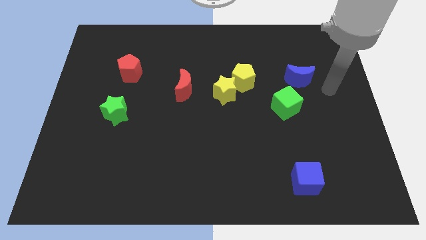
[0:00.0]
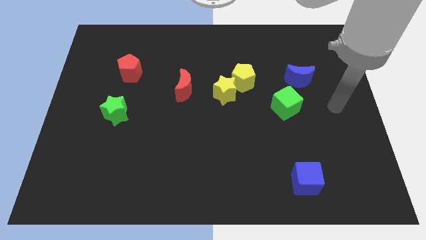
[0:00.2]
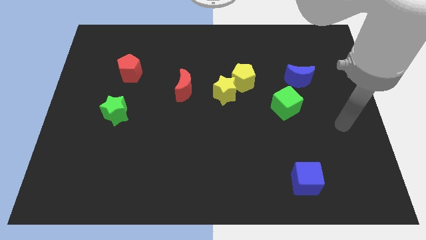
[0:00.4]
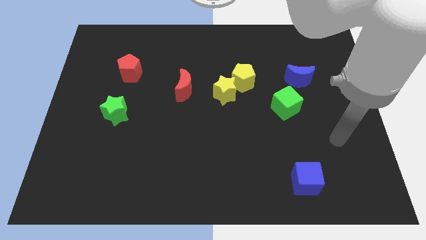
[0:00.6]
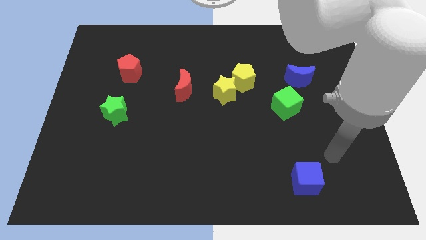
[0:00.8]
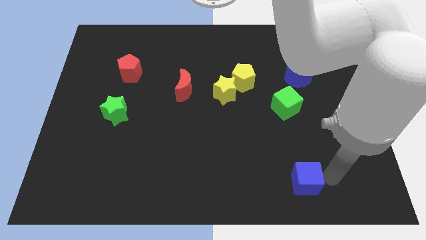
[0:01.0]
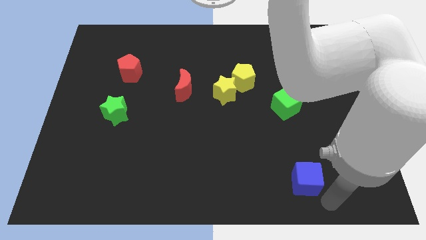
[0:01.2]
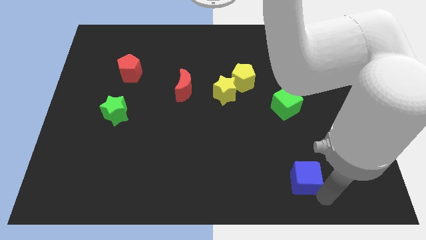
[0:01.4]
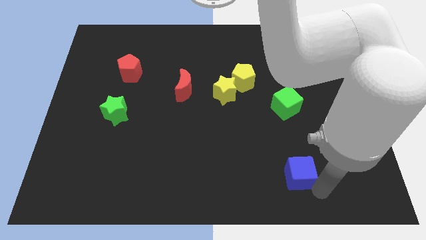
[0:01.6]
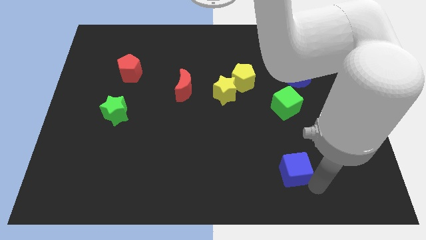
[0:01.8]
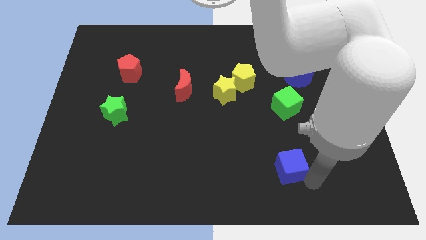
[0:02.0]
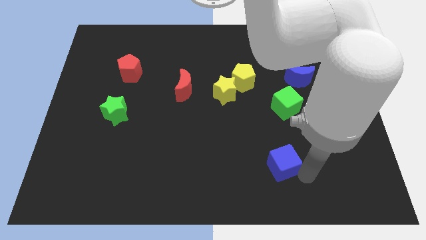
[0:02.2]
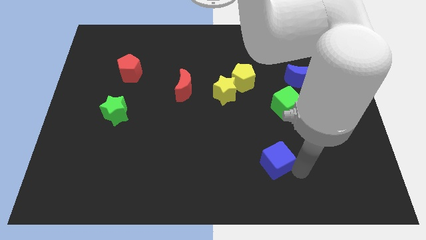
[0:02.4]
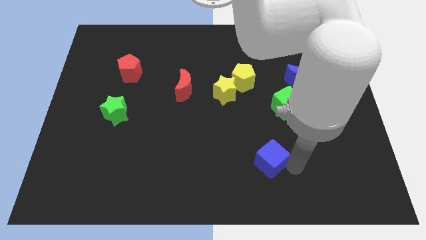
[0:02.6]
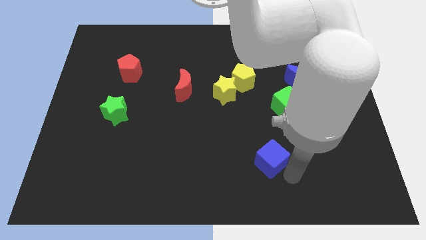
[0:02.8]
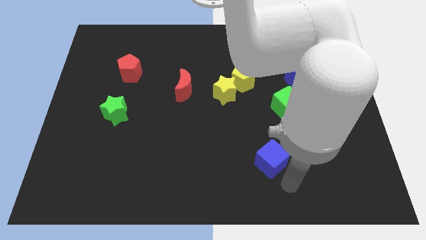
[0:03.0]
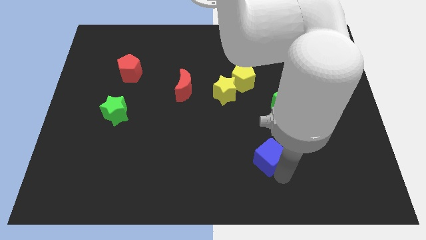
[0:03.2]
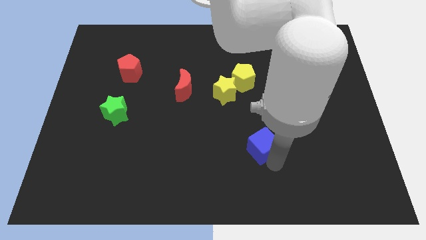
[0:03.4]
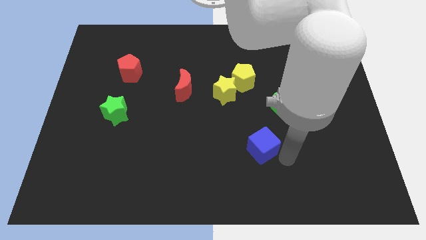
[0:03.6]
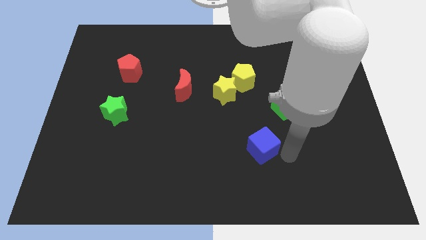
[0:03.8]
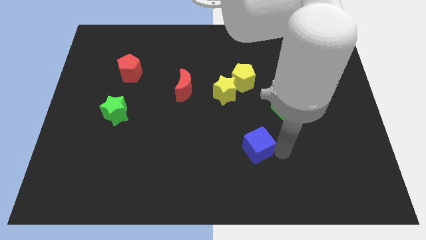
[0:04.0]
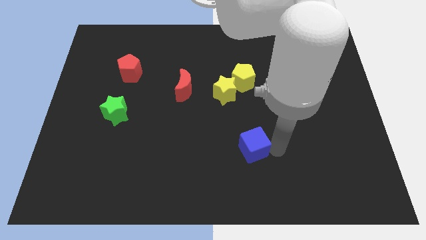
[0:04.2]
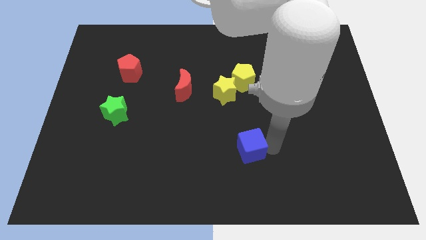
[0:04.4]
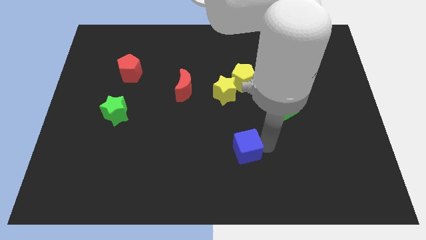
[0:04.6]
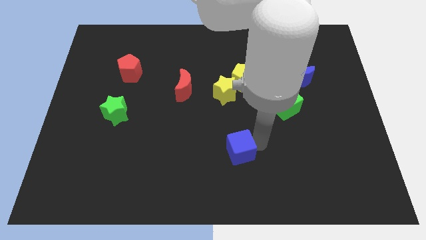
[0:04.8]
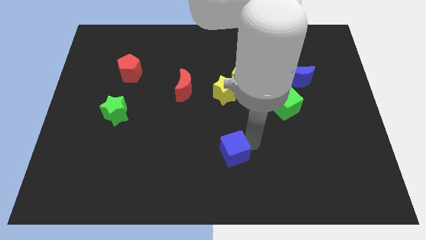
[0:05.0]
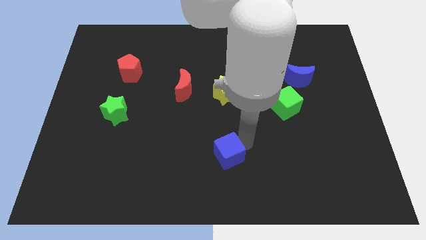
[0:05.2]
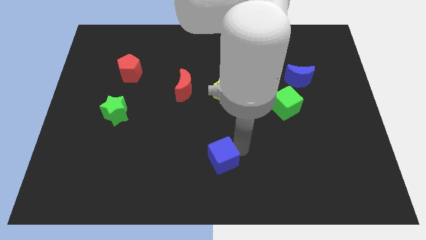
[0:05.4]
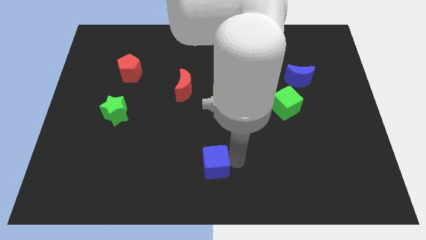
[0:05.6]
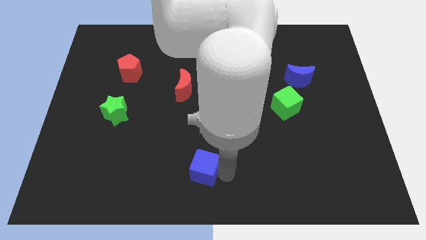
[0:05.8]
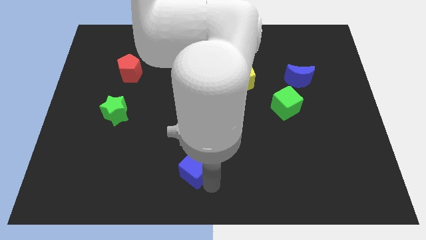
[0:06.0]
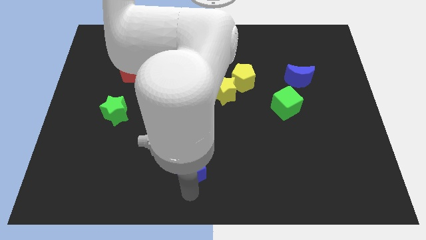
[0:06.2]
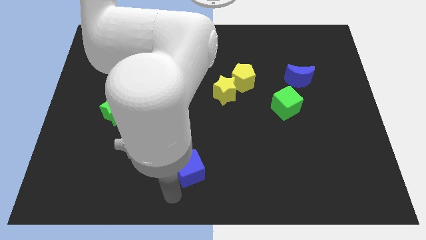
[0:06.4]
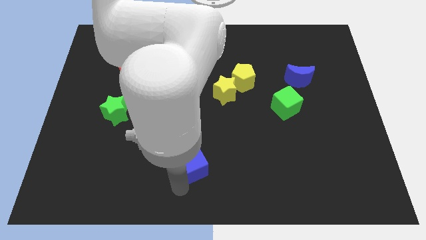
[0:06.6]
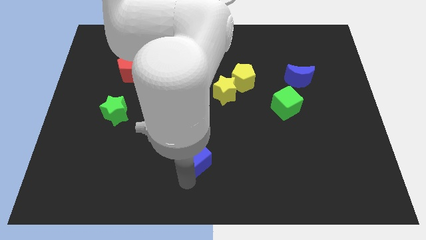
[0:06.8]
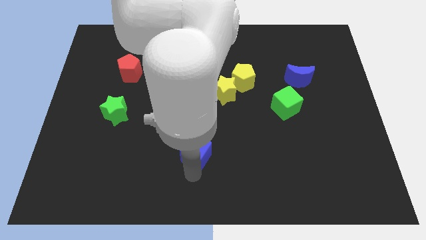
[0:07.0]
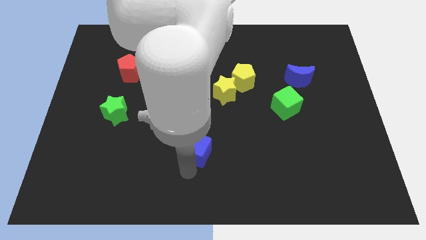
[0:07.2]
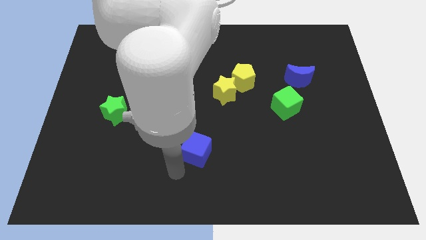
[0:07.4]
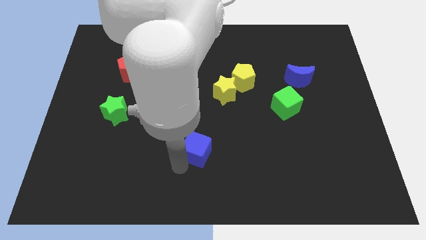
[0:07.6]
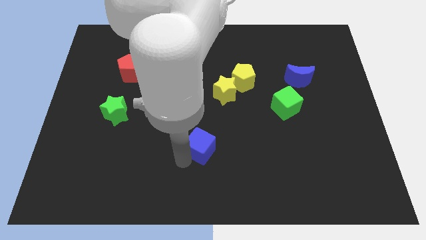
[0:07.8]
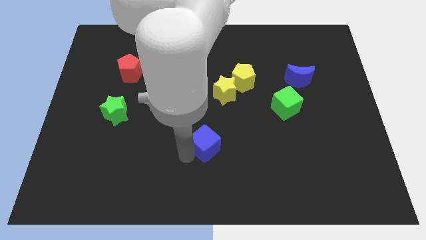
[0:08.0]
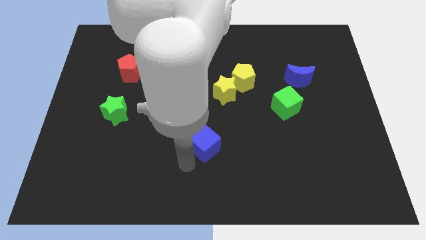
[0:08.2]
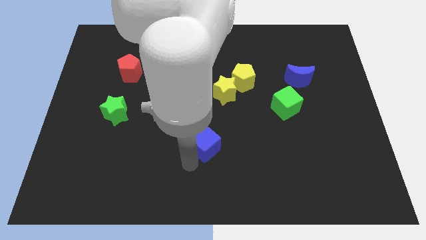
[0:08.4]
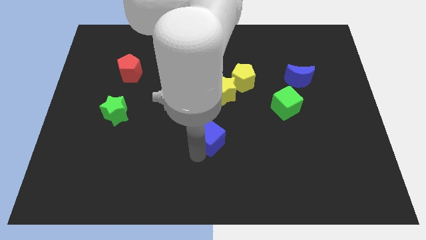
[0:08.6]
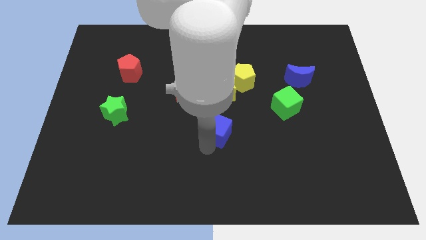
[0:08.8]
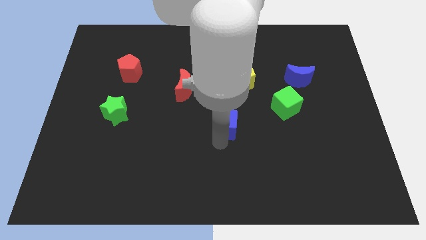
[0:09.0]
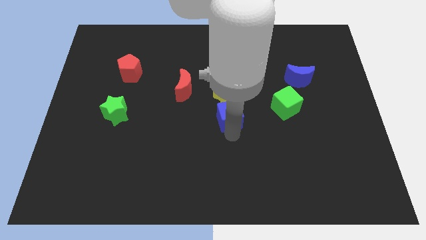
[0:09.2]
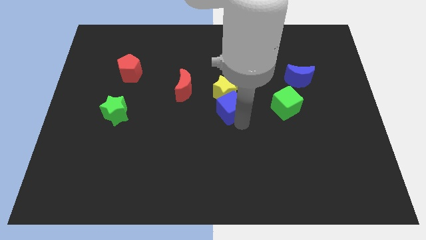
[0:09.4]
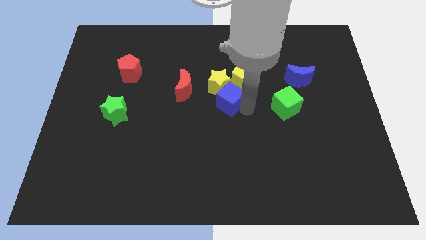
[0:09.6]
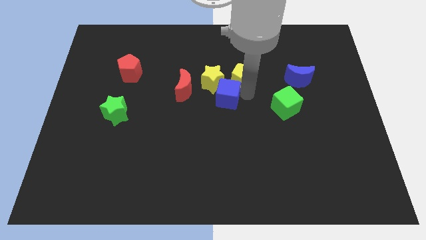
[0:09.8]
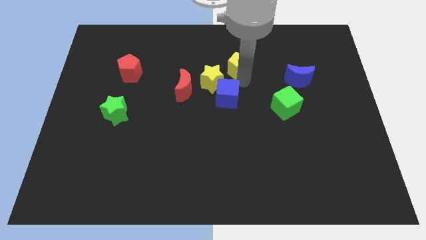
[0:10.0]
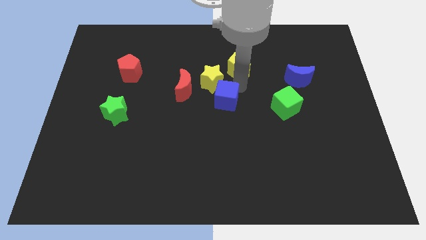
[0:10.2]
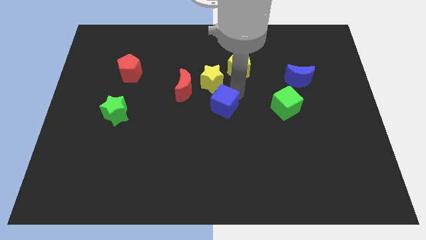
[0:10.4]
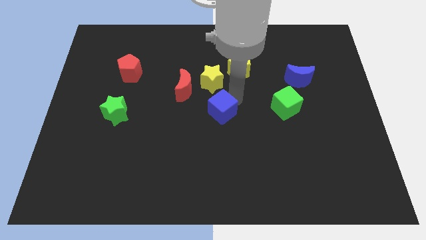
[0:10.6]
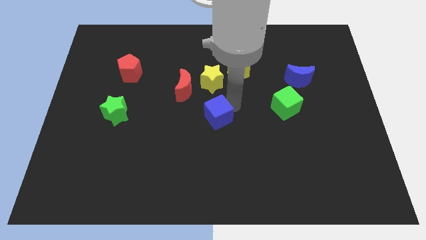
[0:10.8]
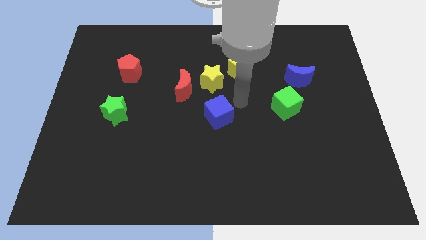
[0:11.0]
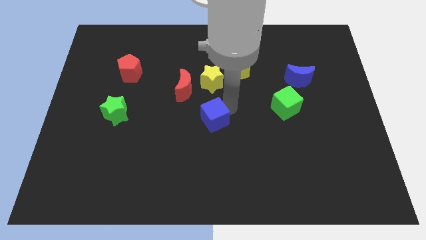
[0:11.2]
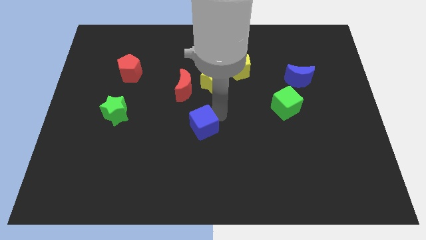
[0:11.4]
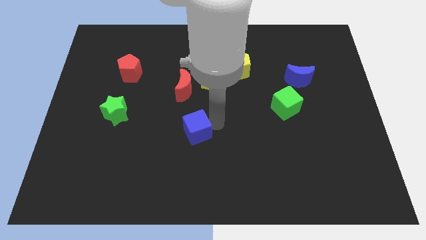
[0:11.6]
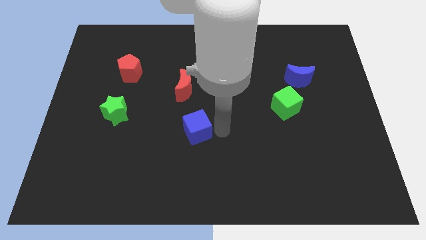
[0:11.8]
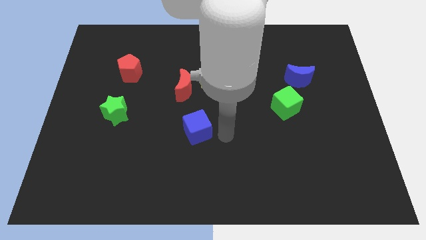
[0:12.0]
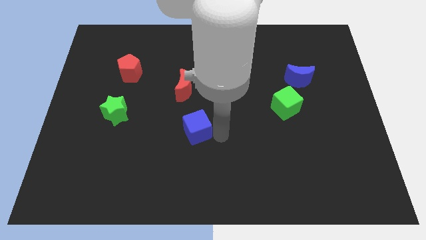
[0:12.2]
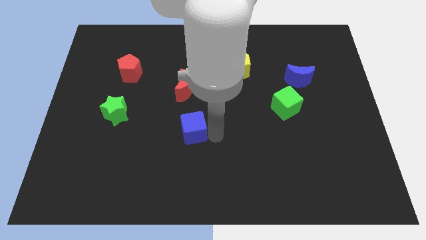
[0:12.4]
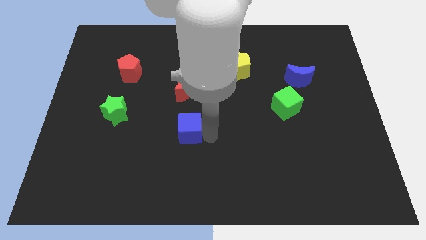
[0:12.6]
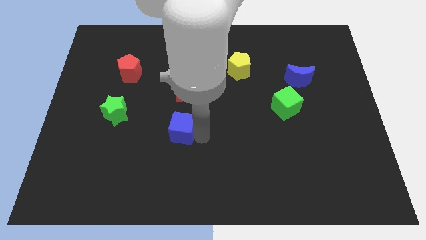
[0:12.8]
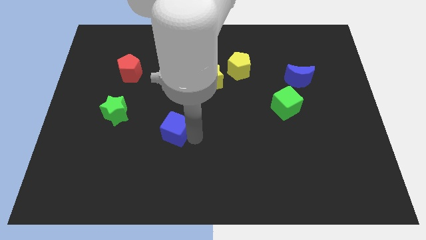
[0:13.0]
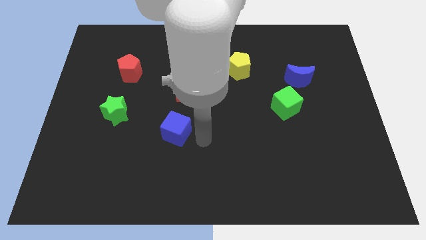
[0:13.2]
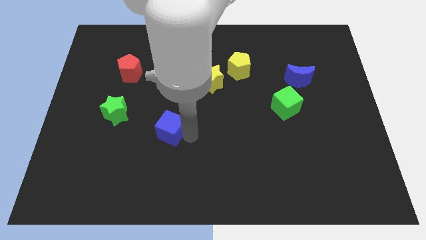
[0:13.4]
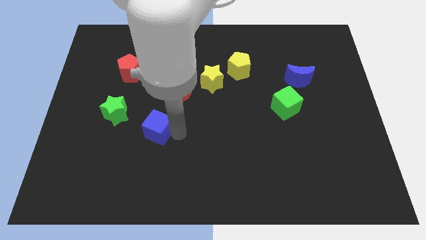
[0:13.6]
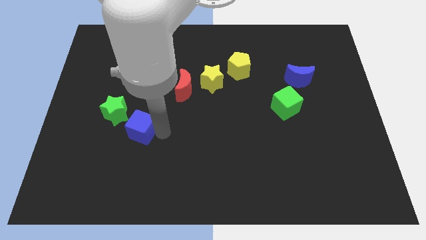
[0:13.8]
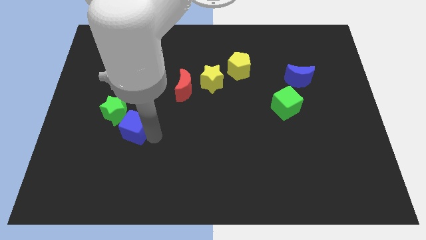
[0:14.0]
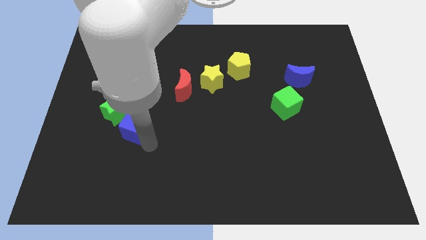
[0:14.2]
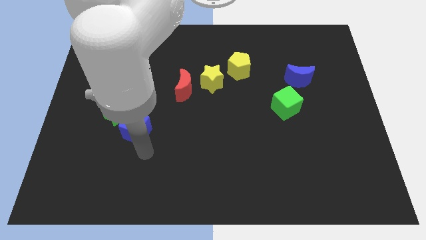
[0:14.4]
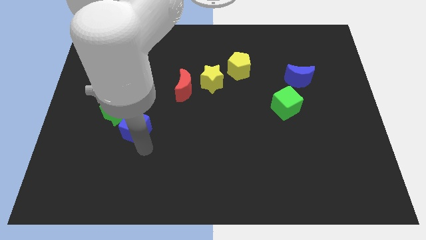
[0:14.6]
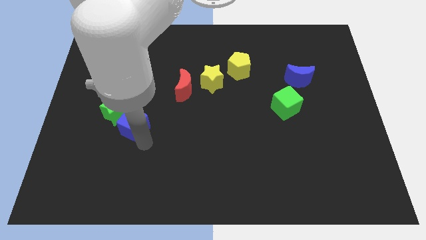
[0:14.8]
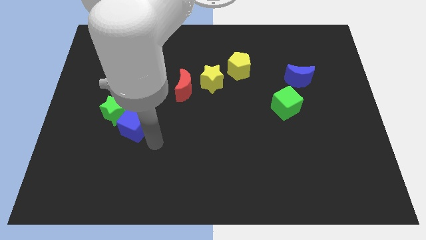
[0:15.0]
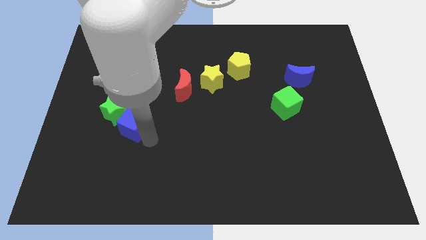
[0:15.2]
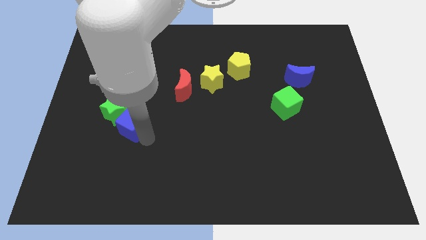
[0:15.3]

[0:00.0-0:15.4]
slide the blue cube to the green star
